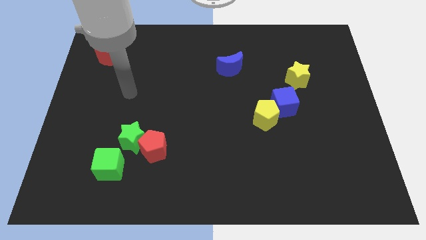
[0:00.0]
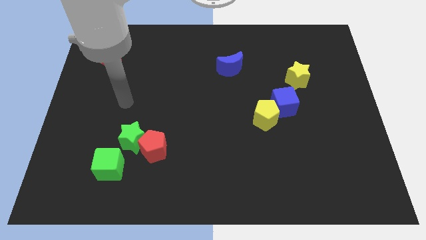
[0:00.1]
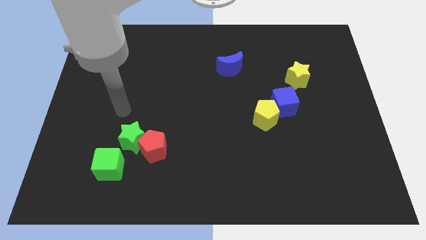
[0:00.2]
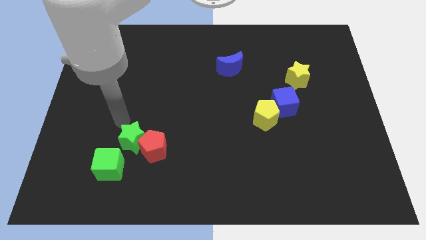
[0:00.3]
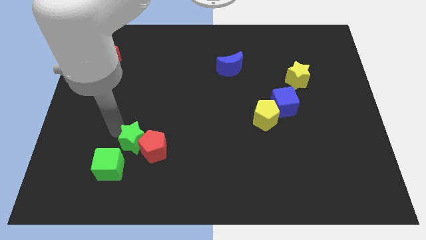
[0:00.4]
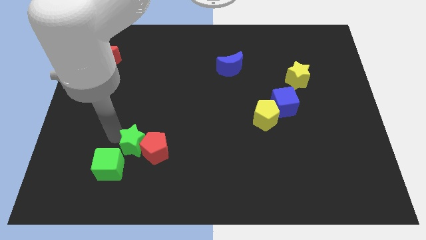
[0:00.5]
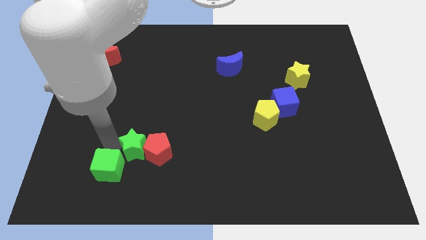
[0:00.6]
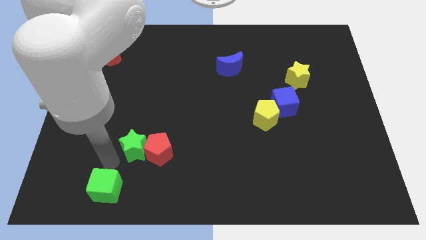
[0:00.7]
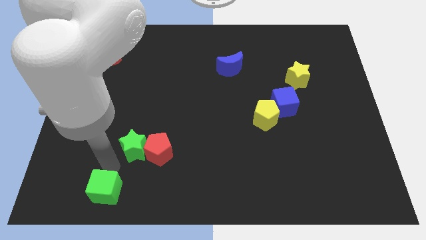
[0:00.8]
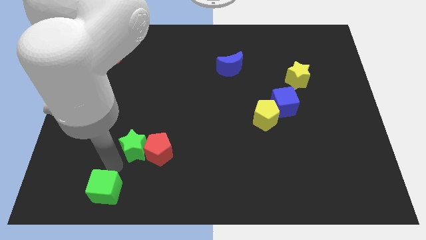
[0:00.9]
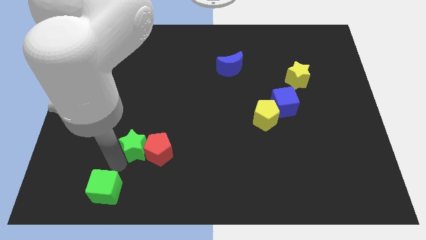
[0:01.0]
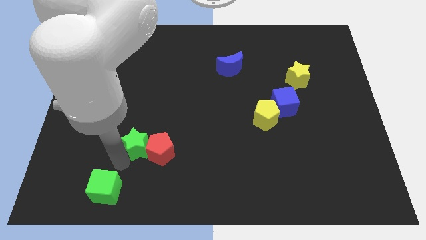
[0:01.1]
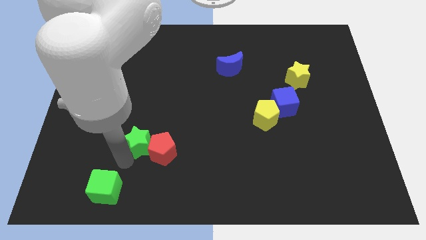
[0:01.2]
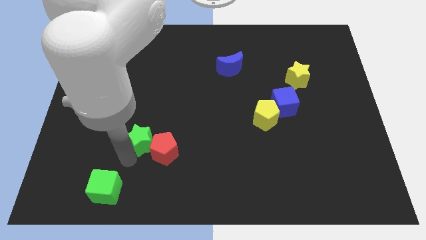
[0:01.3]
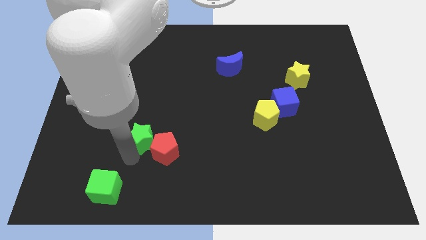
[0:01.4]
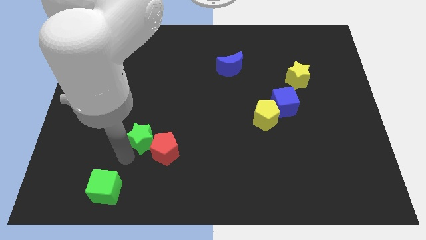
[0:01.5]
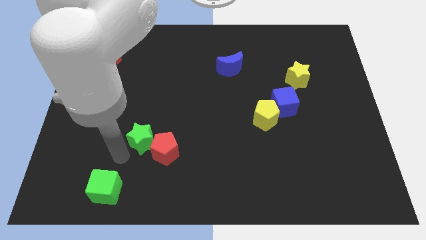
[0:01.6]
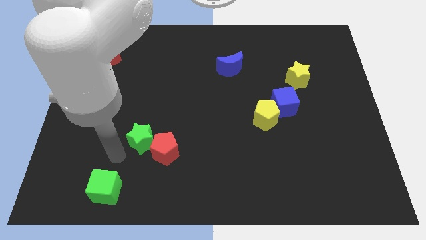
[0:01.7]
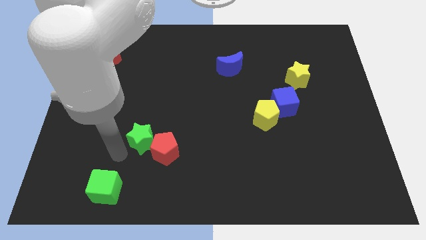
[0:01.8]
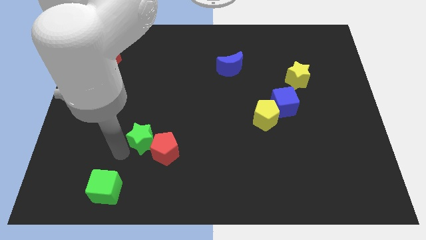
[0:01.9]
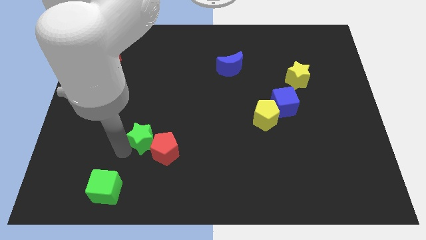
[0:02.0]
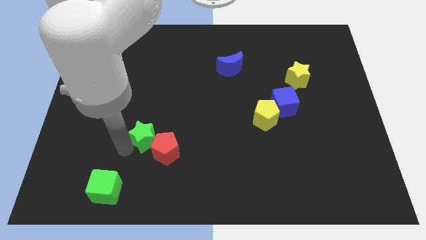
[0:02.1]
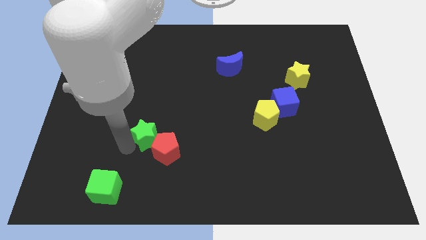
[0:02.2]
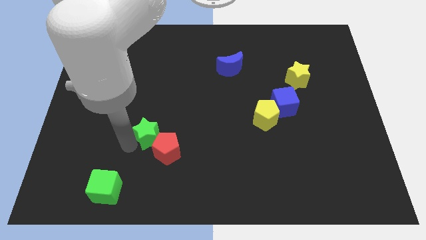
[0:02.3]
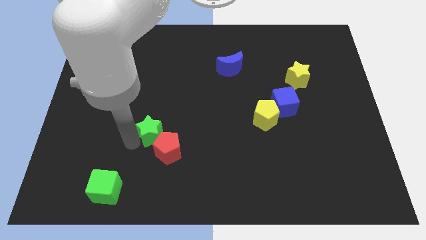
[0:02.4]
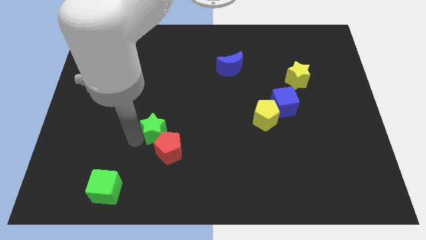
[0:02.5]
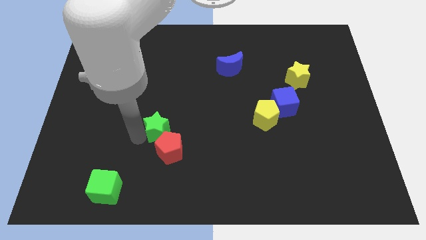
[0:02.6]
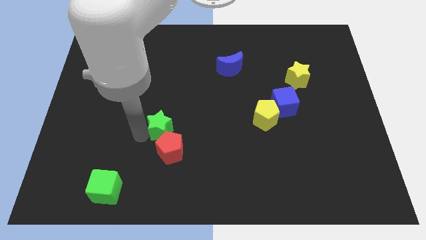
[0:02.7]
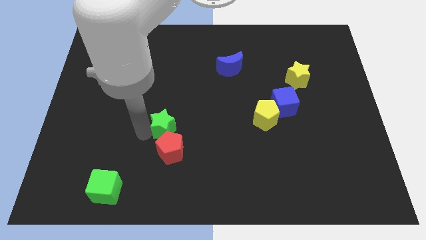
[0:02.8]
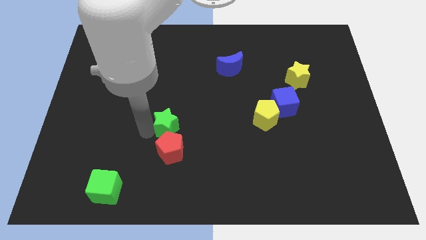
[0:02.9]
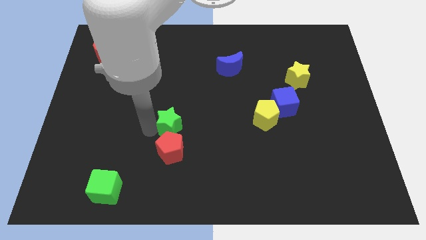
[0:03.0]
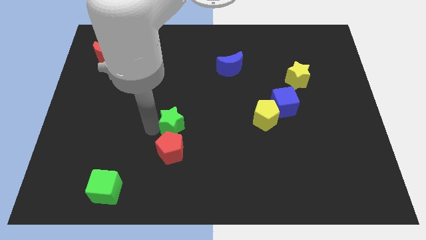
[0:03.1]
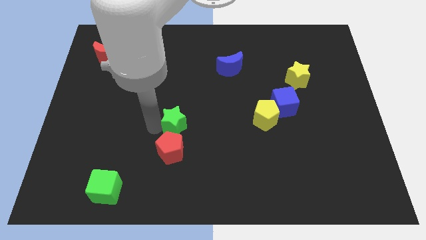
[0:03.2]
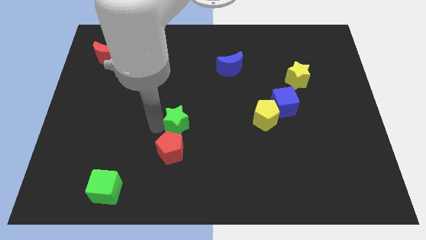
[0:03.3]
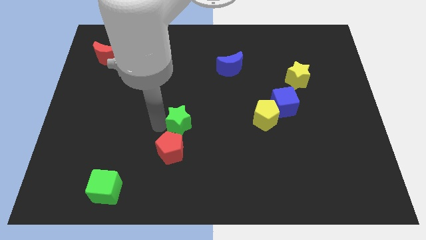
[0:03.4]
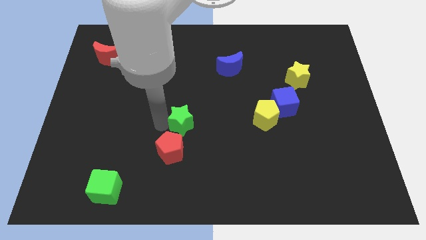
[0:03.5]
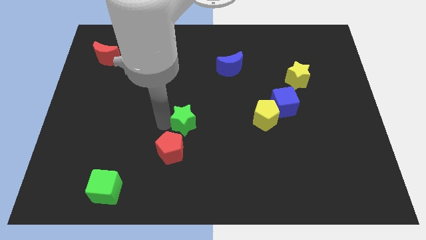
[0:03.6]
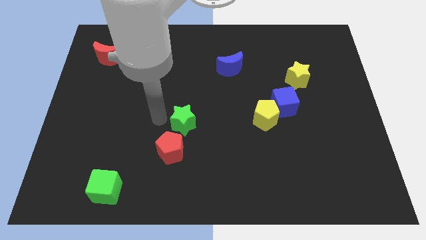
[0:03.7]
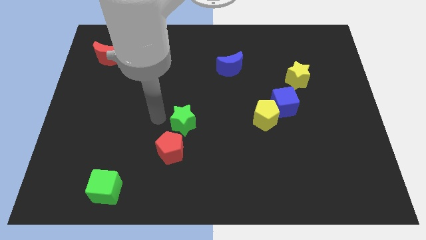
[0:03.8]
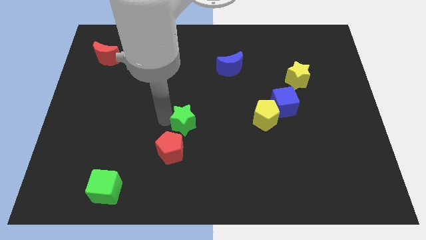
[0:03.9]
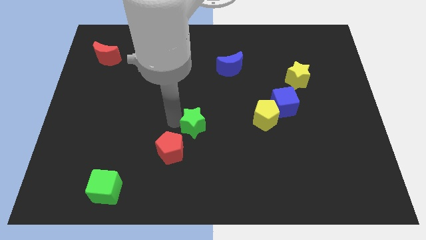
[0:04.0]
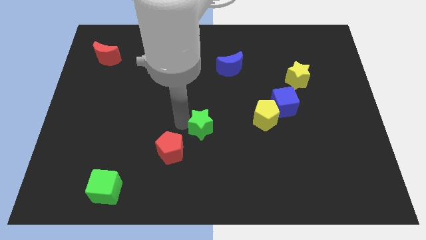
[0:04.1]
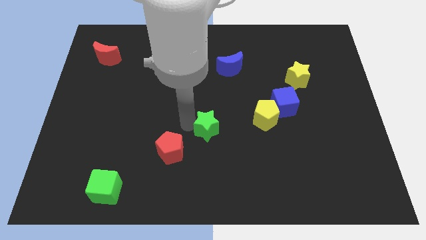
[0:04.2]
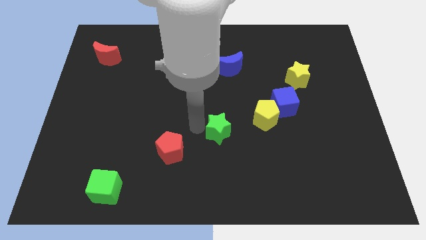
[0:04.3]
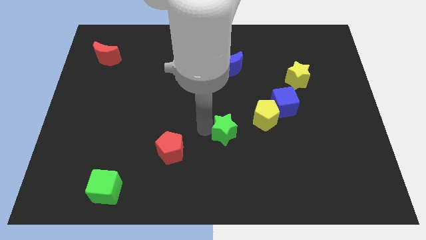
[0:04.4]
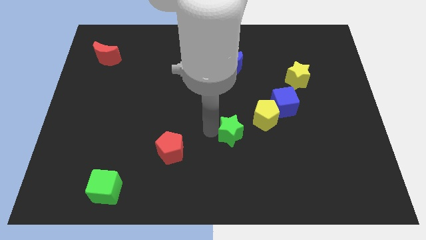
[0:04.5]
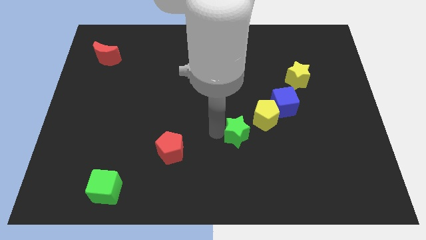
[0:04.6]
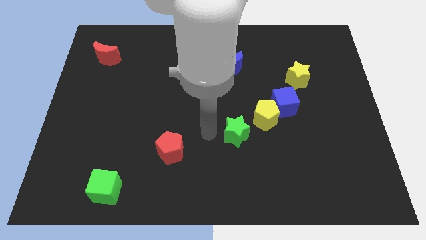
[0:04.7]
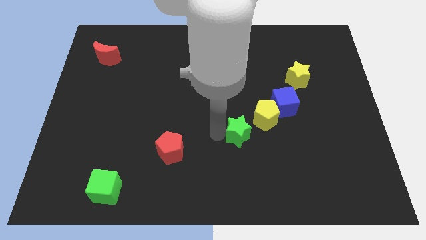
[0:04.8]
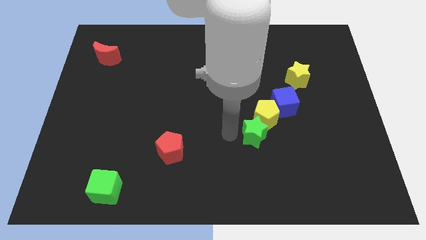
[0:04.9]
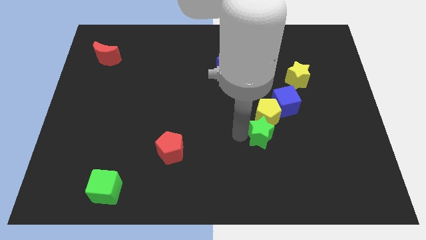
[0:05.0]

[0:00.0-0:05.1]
move the green star to the bottom right of the yellow pentagon

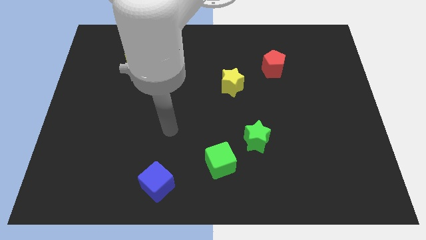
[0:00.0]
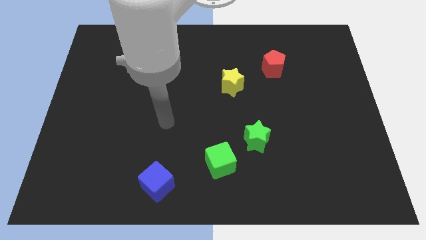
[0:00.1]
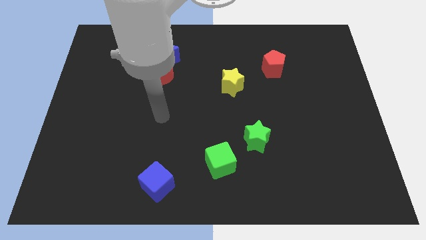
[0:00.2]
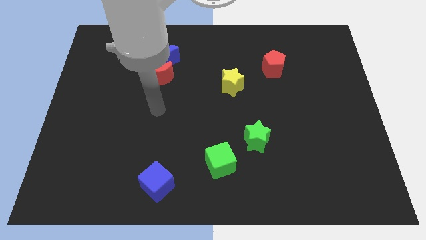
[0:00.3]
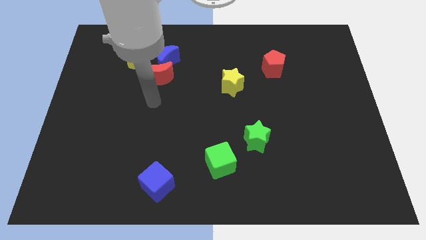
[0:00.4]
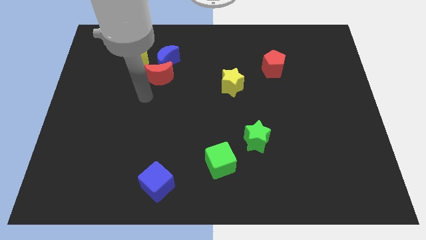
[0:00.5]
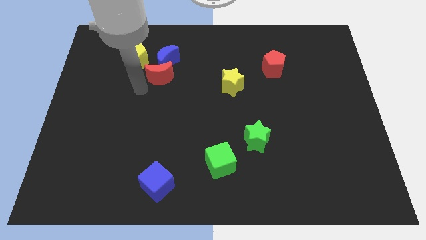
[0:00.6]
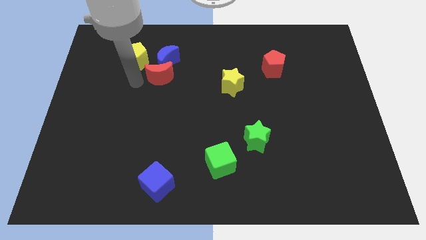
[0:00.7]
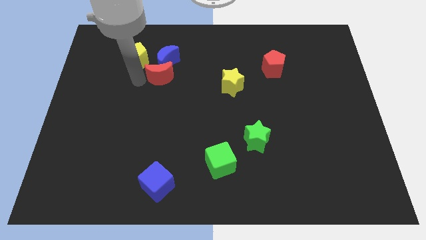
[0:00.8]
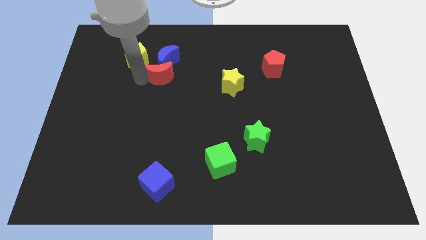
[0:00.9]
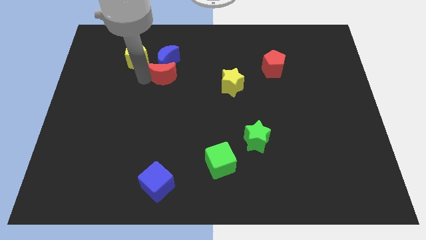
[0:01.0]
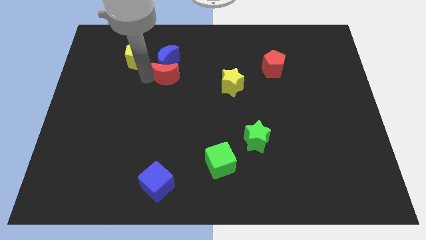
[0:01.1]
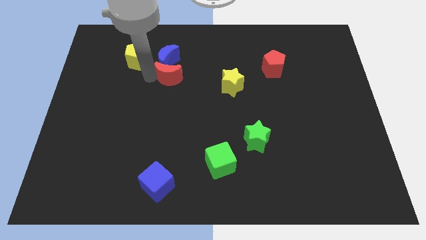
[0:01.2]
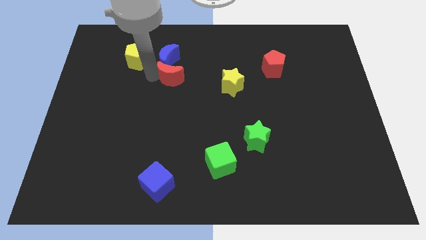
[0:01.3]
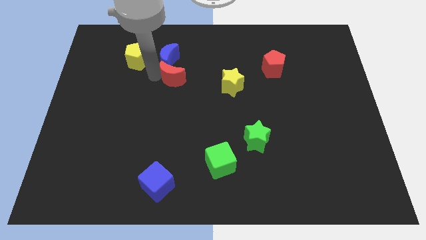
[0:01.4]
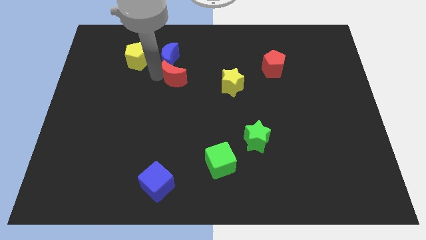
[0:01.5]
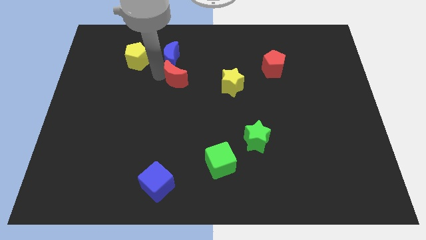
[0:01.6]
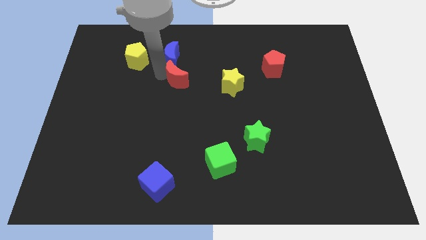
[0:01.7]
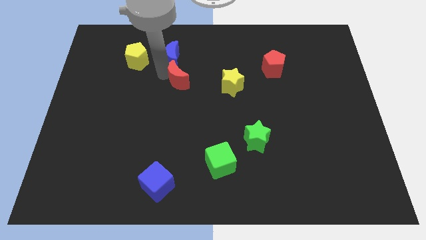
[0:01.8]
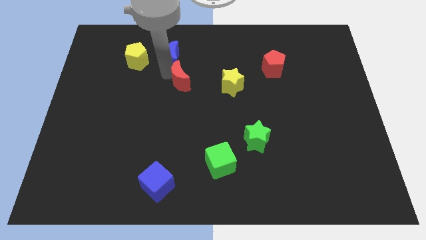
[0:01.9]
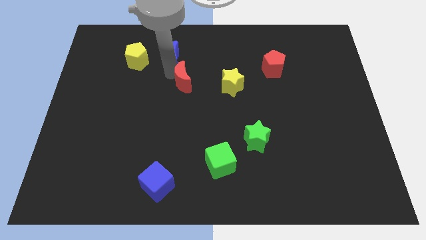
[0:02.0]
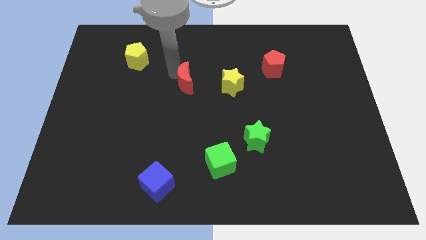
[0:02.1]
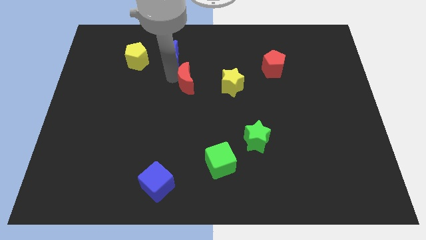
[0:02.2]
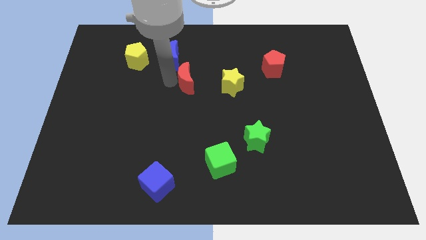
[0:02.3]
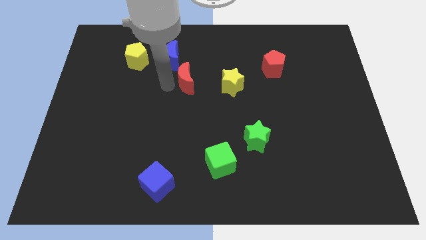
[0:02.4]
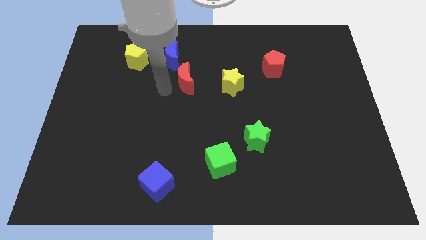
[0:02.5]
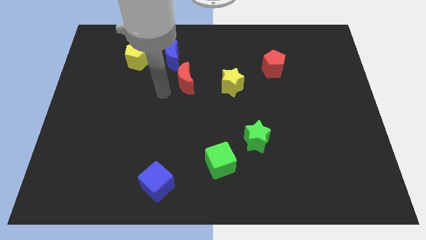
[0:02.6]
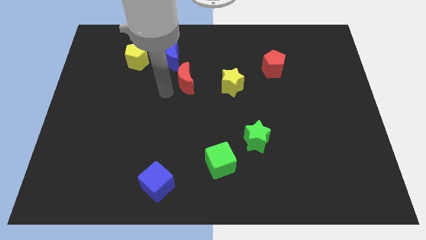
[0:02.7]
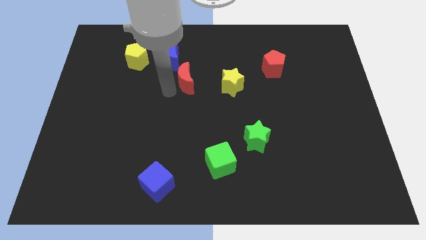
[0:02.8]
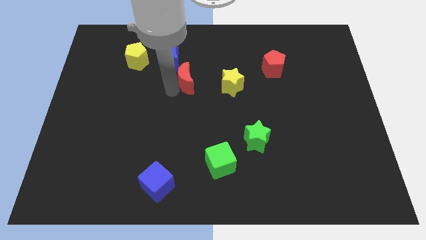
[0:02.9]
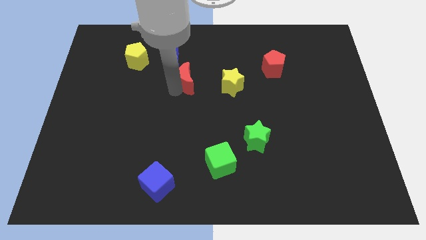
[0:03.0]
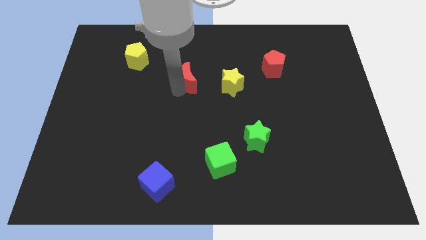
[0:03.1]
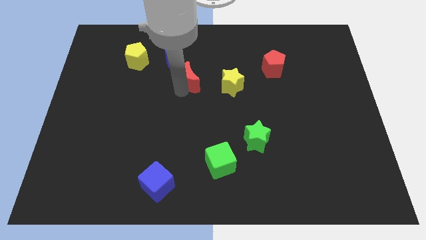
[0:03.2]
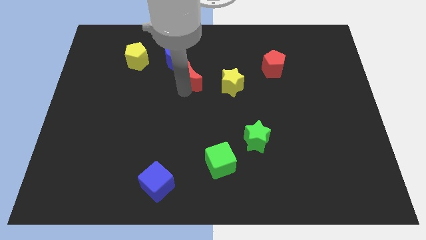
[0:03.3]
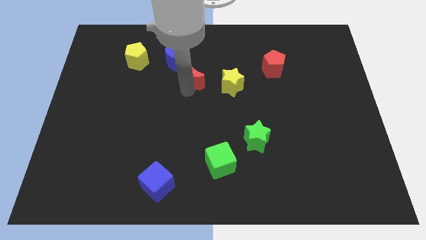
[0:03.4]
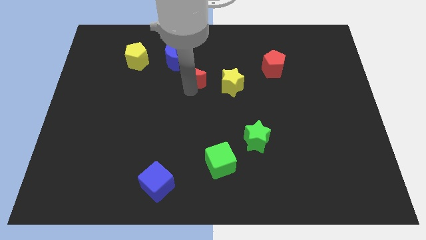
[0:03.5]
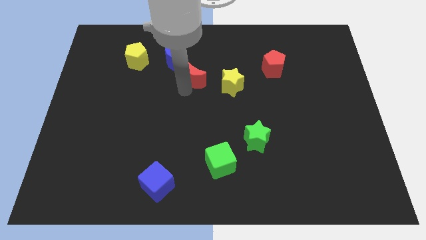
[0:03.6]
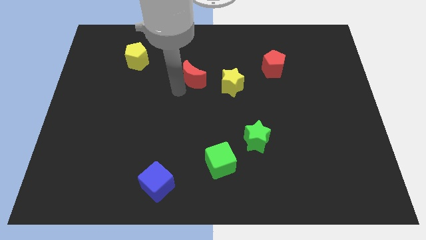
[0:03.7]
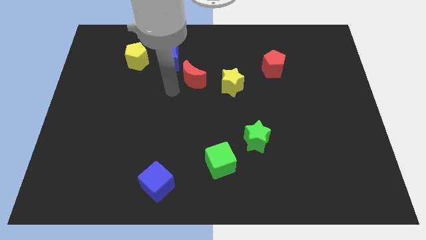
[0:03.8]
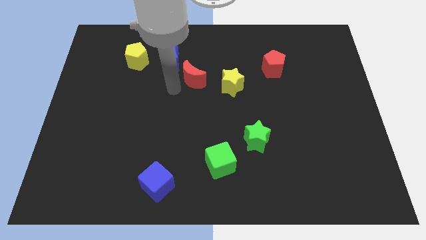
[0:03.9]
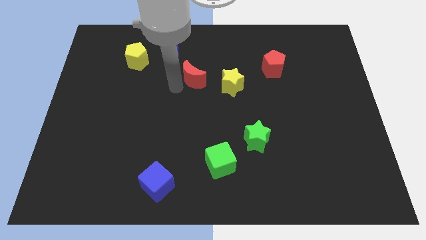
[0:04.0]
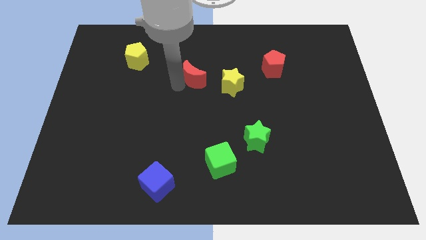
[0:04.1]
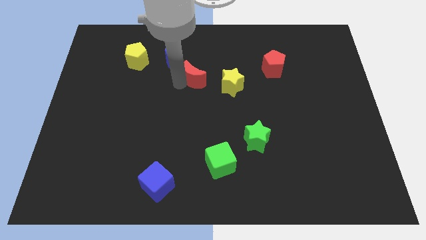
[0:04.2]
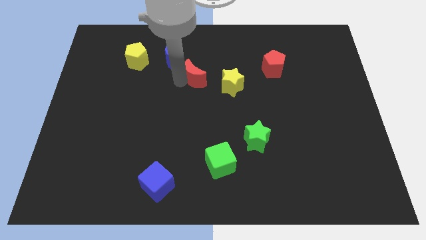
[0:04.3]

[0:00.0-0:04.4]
move the red moon to the top left side of the yellow star
